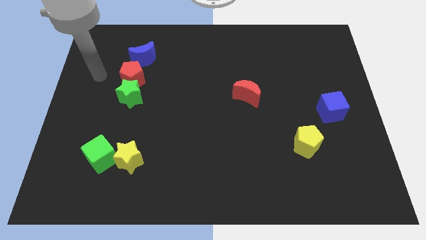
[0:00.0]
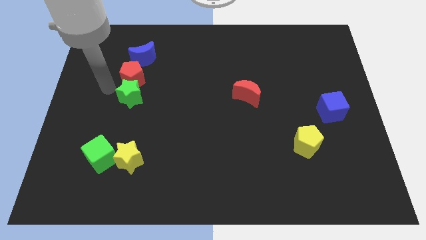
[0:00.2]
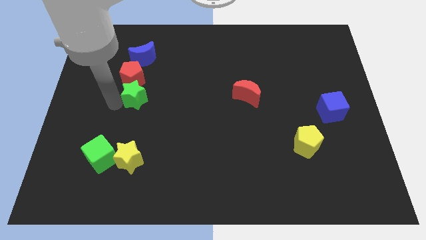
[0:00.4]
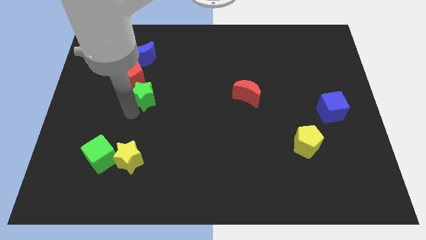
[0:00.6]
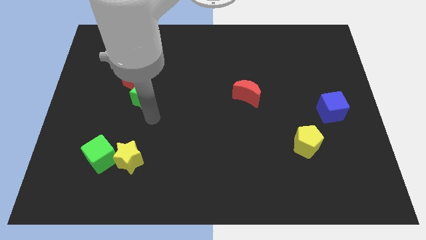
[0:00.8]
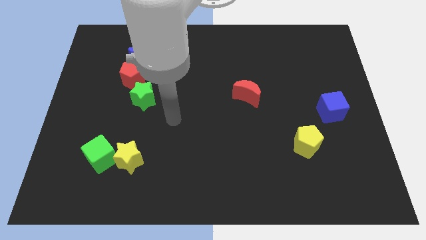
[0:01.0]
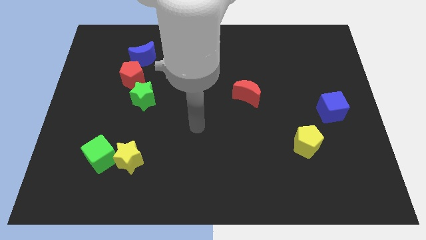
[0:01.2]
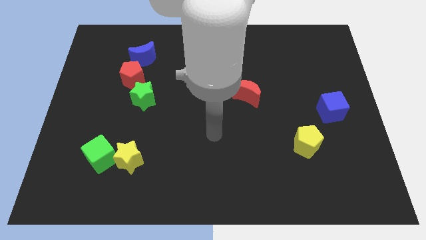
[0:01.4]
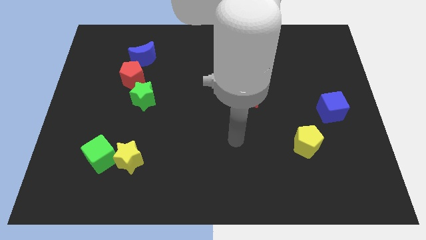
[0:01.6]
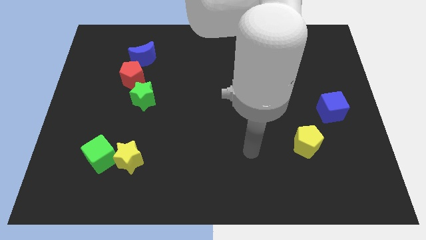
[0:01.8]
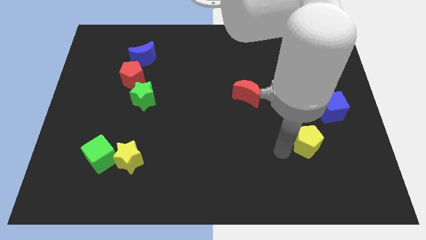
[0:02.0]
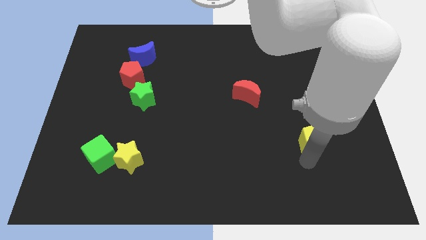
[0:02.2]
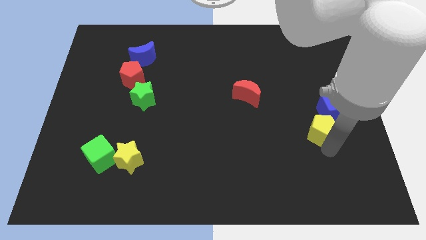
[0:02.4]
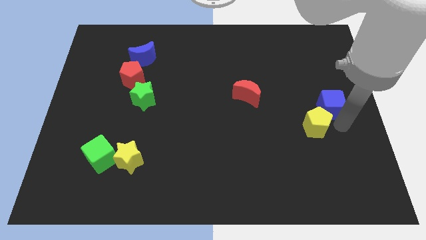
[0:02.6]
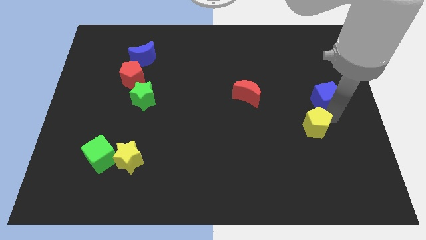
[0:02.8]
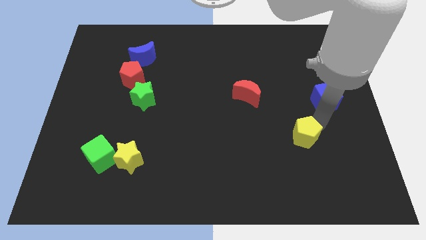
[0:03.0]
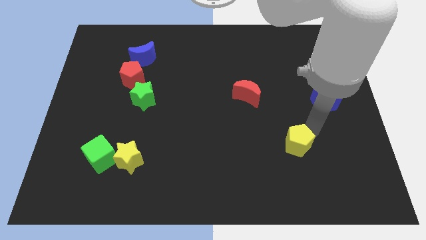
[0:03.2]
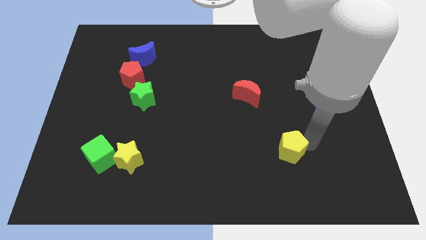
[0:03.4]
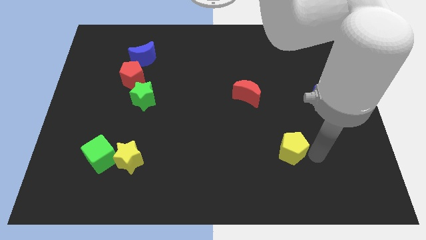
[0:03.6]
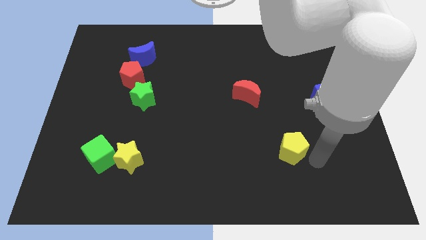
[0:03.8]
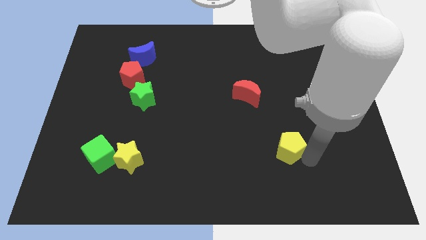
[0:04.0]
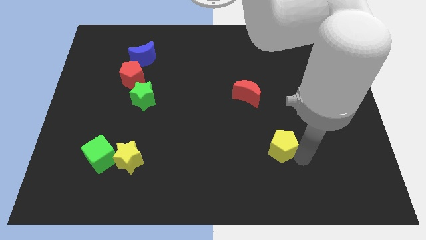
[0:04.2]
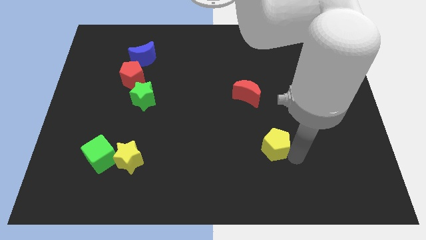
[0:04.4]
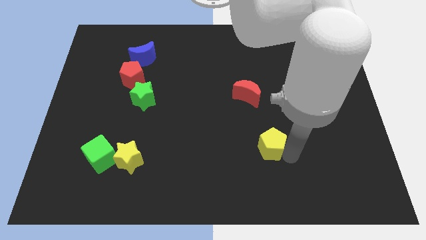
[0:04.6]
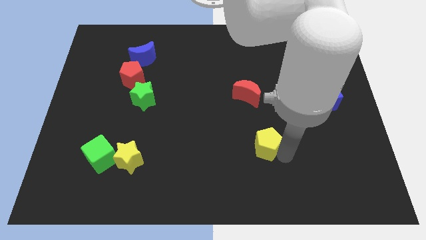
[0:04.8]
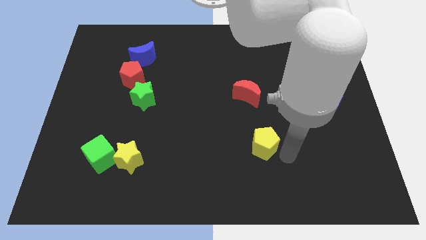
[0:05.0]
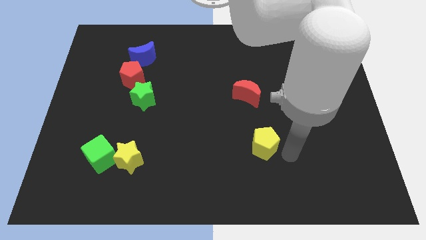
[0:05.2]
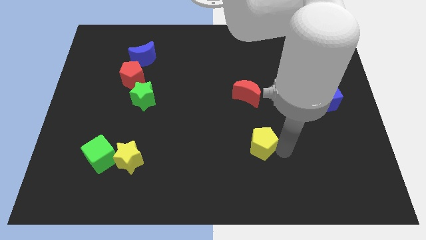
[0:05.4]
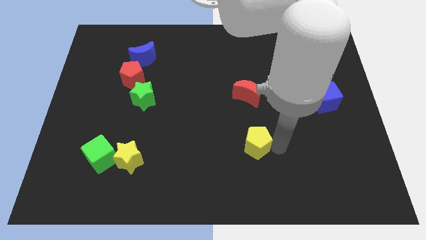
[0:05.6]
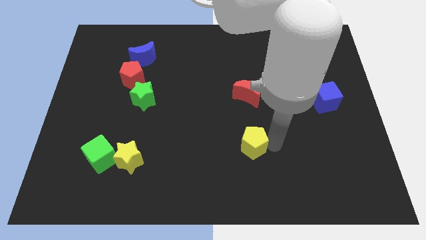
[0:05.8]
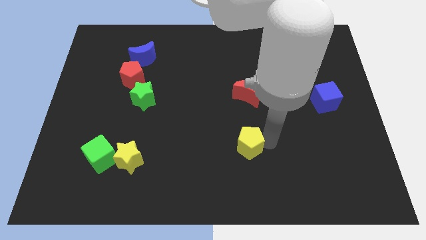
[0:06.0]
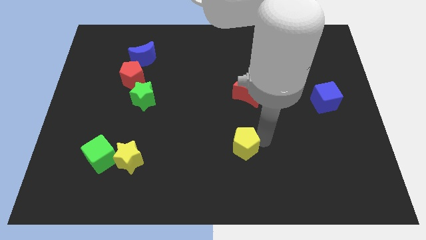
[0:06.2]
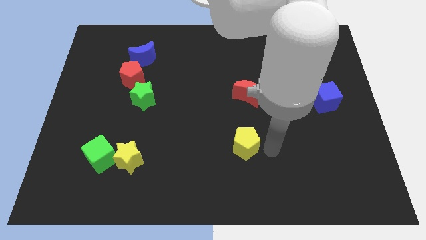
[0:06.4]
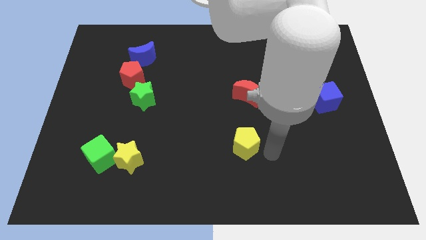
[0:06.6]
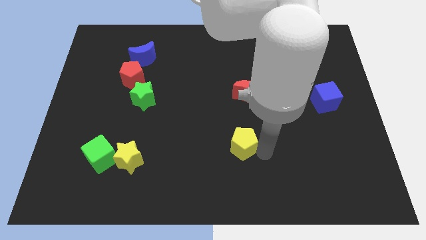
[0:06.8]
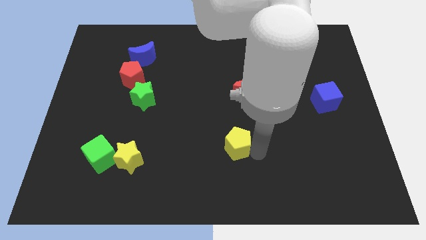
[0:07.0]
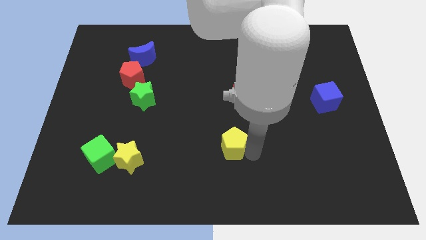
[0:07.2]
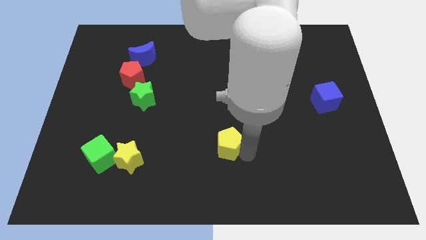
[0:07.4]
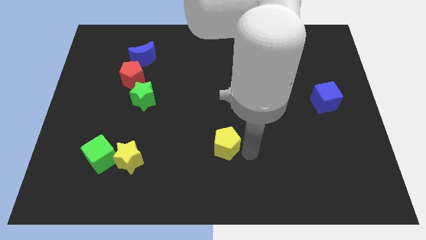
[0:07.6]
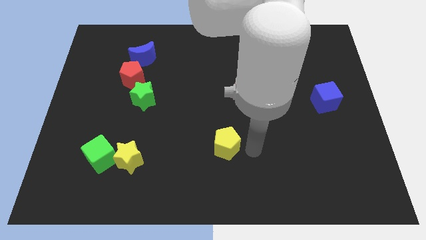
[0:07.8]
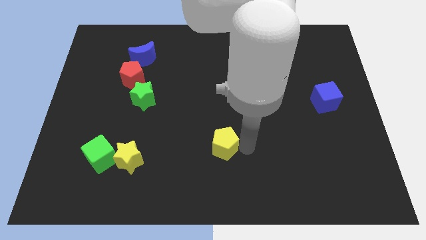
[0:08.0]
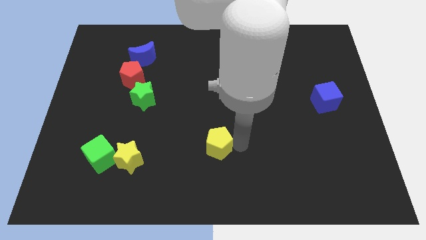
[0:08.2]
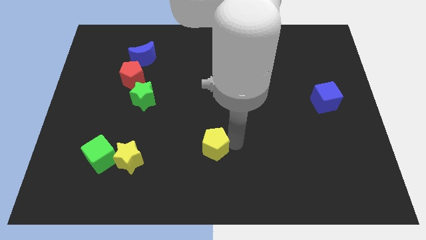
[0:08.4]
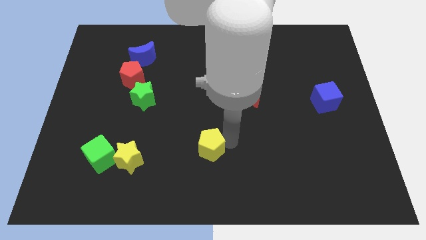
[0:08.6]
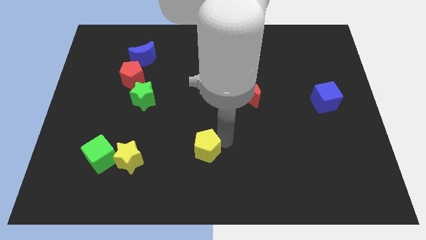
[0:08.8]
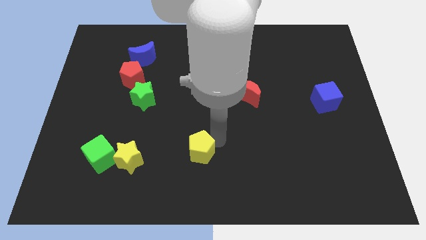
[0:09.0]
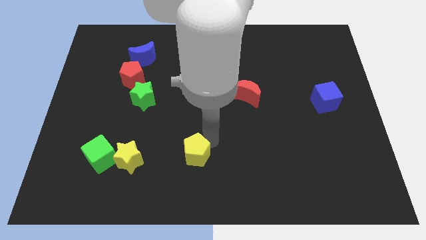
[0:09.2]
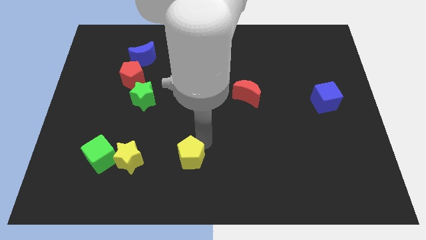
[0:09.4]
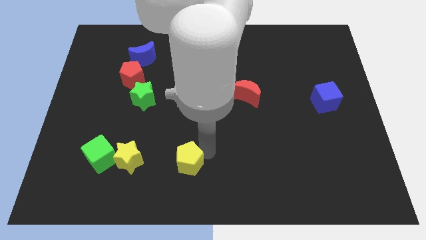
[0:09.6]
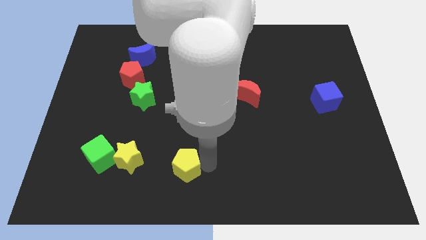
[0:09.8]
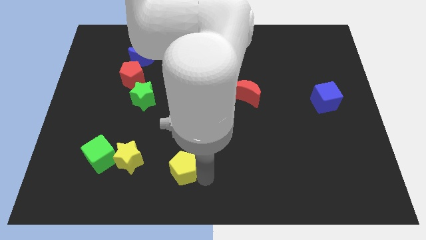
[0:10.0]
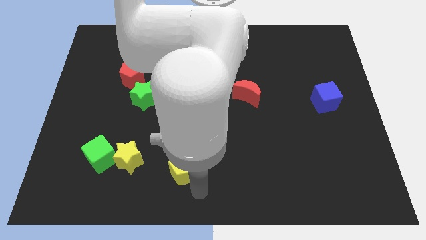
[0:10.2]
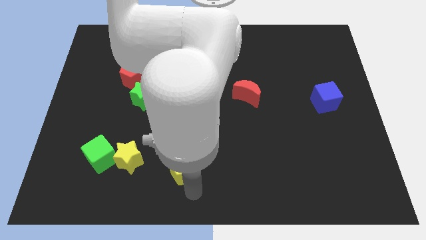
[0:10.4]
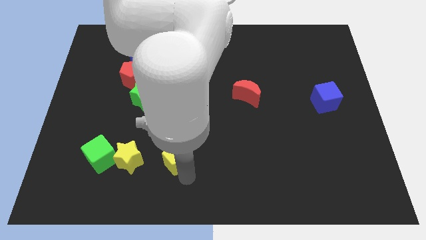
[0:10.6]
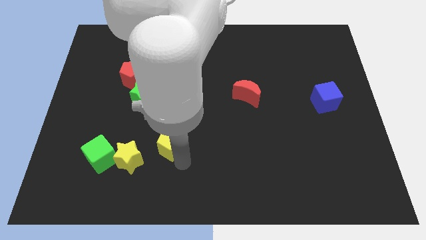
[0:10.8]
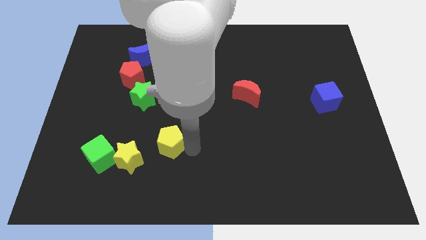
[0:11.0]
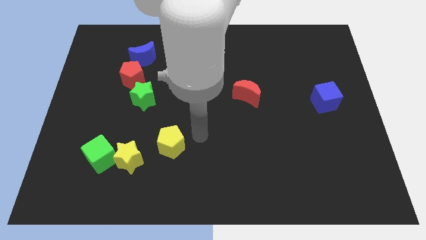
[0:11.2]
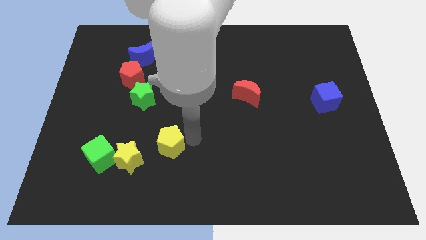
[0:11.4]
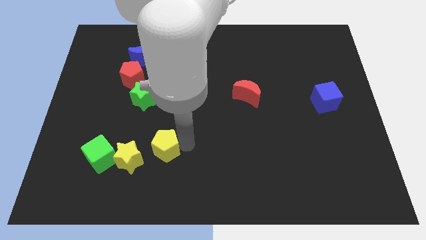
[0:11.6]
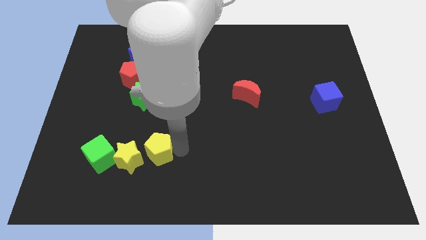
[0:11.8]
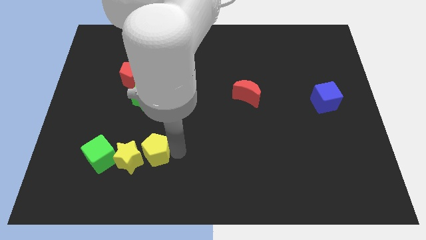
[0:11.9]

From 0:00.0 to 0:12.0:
put the yellow pentagon next to the yellow star

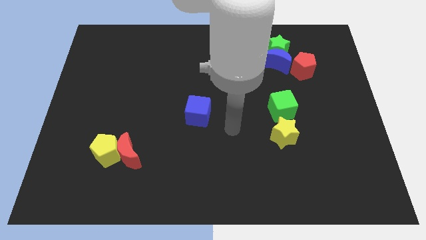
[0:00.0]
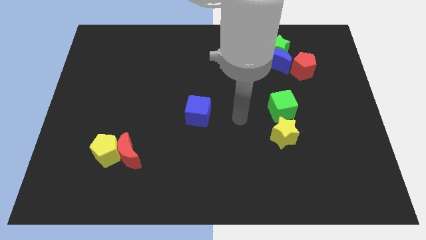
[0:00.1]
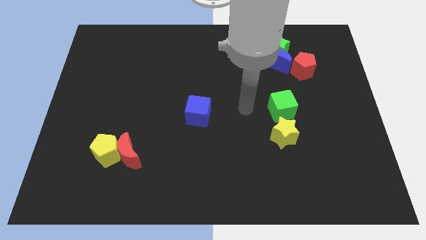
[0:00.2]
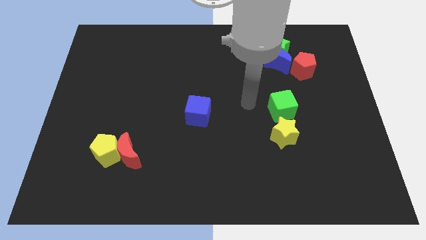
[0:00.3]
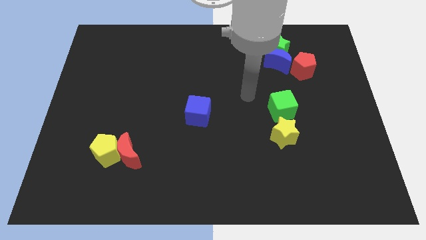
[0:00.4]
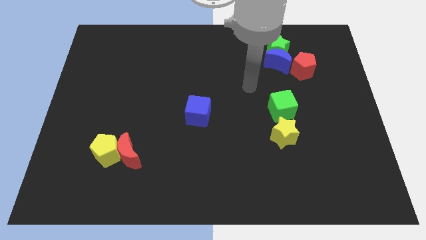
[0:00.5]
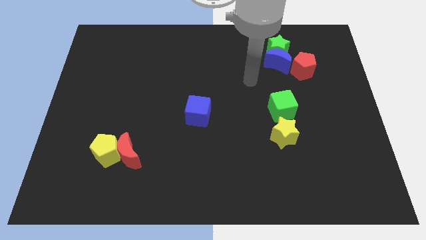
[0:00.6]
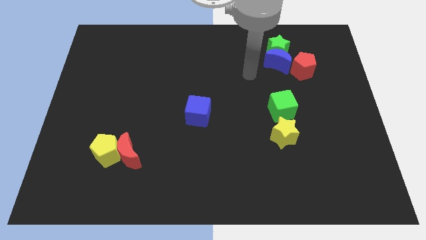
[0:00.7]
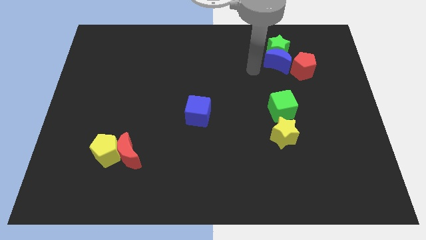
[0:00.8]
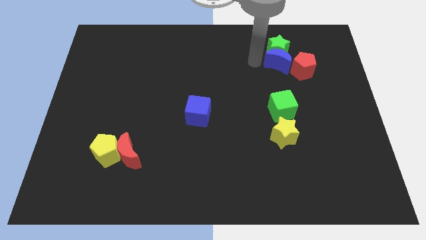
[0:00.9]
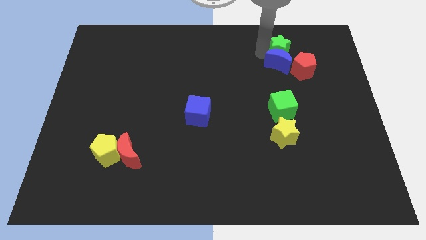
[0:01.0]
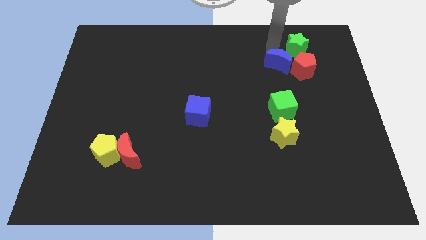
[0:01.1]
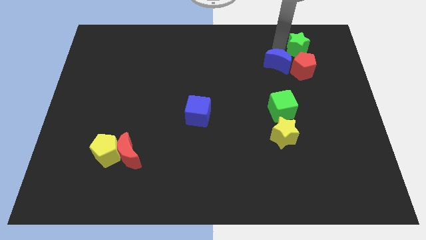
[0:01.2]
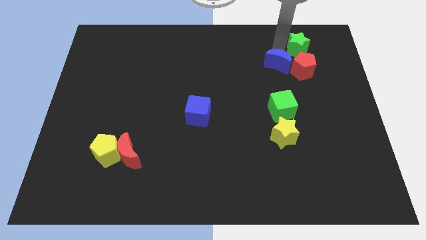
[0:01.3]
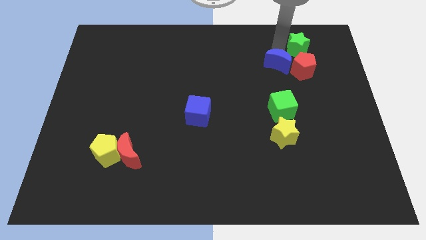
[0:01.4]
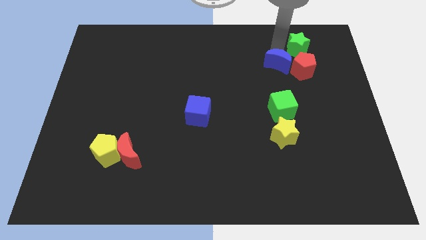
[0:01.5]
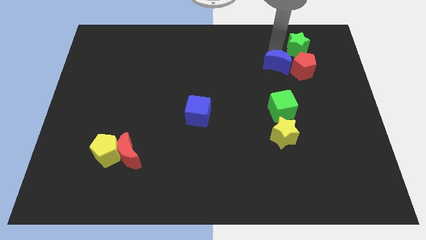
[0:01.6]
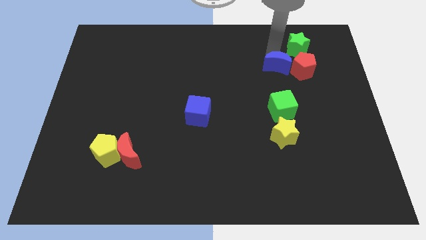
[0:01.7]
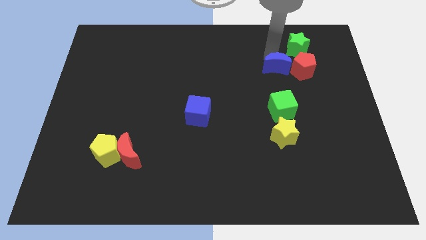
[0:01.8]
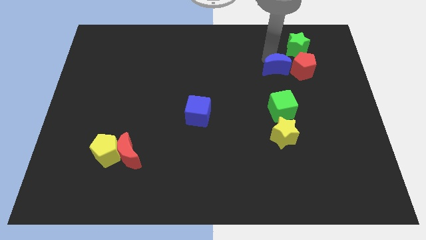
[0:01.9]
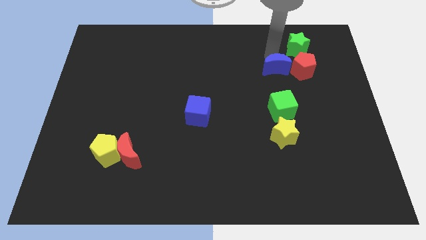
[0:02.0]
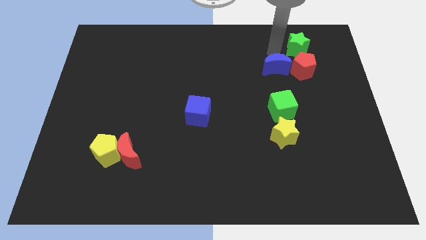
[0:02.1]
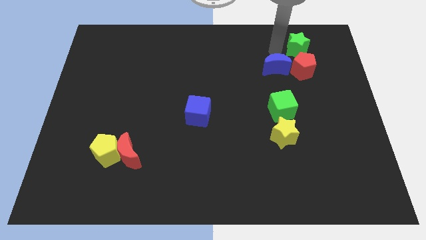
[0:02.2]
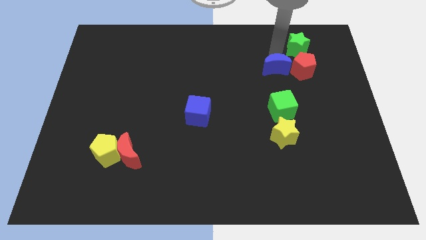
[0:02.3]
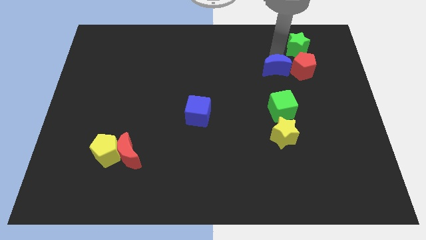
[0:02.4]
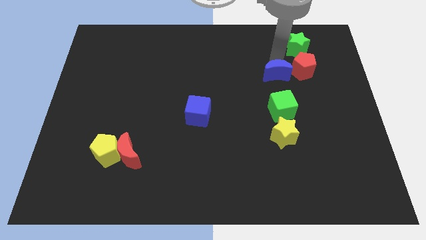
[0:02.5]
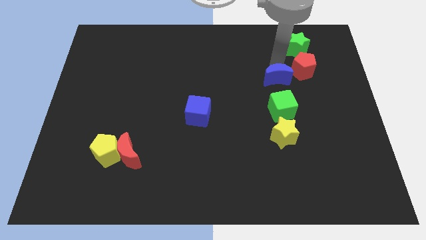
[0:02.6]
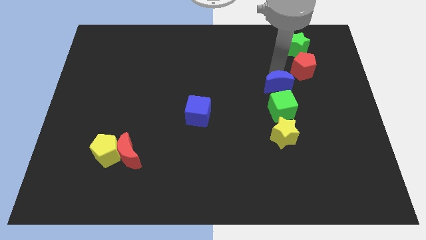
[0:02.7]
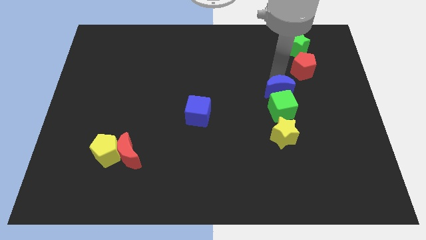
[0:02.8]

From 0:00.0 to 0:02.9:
move the blue moon next to the green cube
